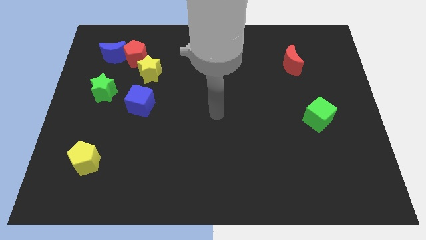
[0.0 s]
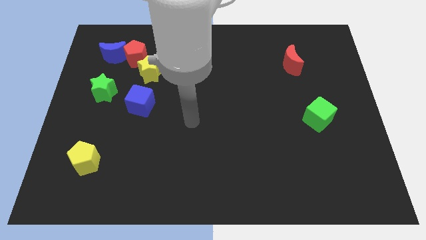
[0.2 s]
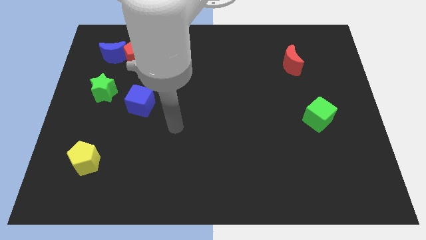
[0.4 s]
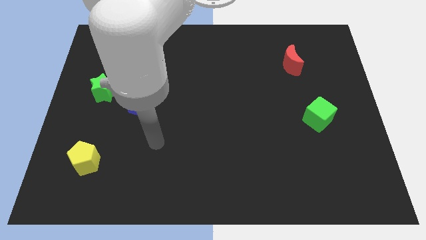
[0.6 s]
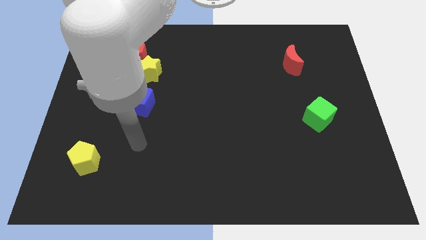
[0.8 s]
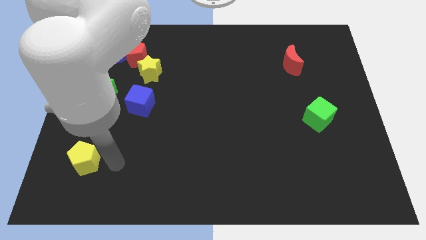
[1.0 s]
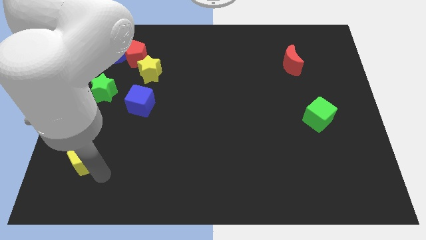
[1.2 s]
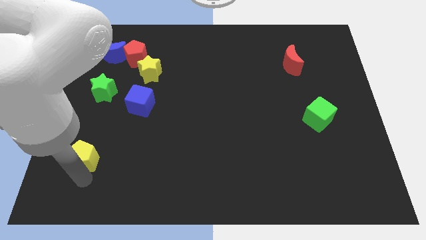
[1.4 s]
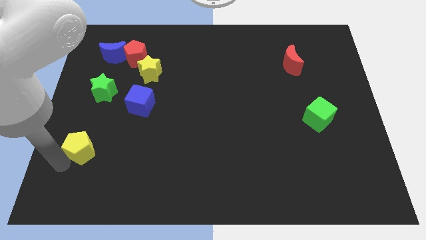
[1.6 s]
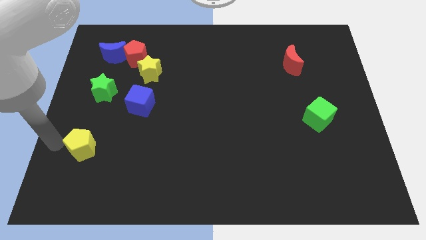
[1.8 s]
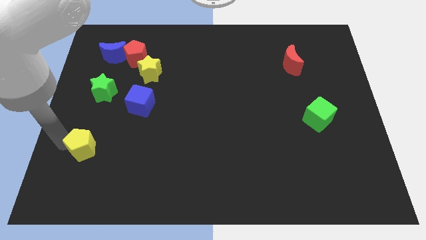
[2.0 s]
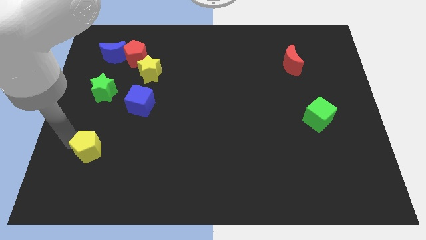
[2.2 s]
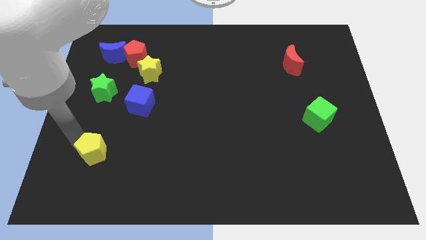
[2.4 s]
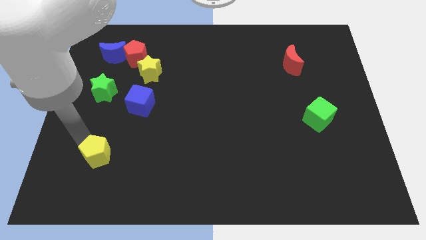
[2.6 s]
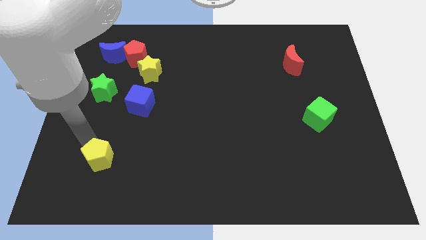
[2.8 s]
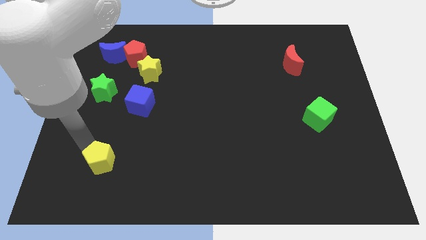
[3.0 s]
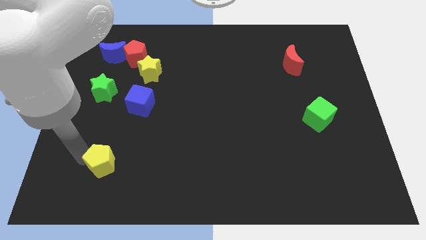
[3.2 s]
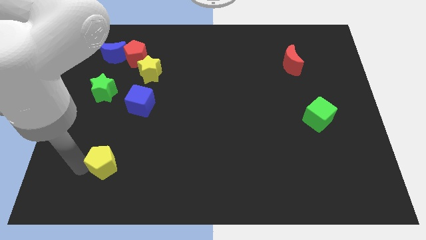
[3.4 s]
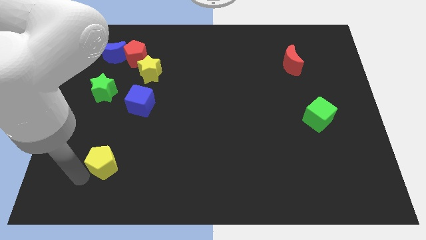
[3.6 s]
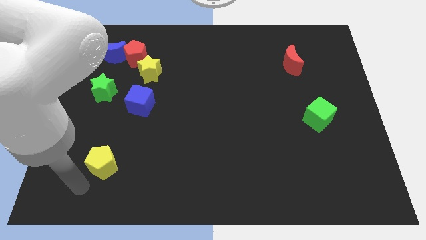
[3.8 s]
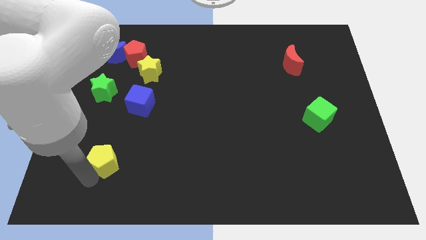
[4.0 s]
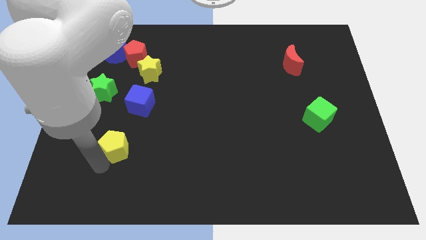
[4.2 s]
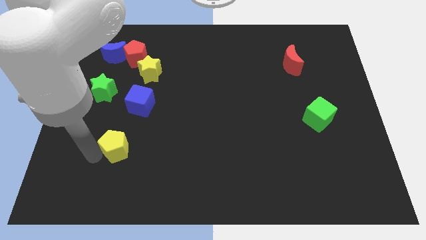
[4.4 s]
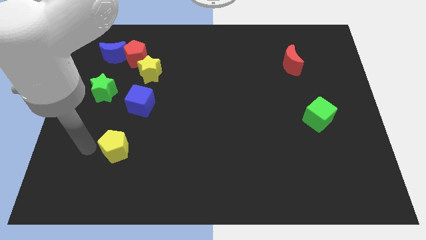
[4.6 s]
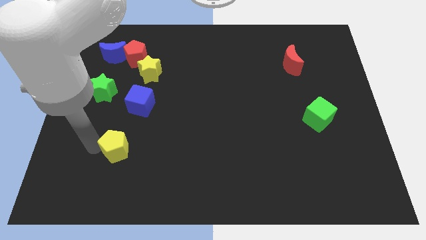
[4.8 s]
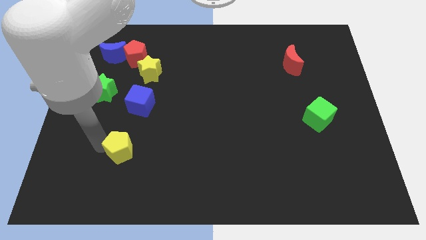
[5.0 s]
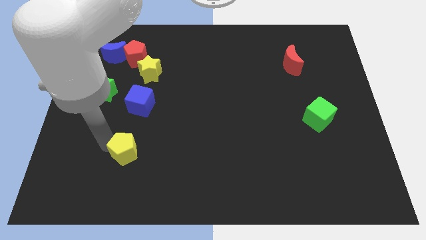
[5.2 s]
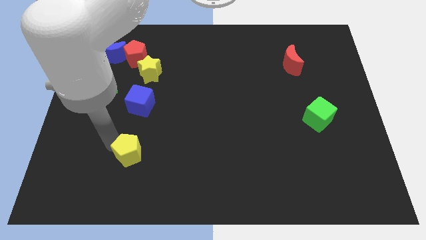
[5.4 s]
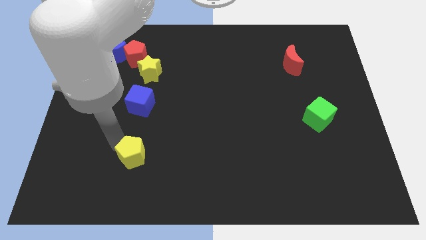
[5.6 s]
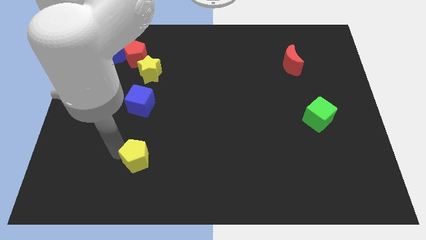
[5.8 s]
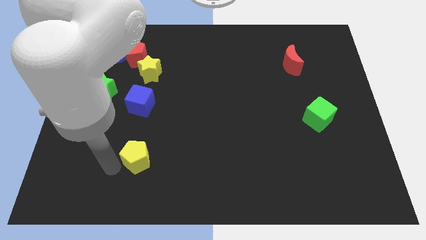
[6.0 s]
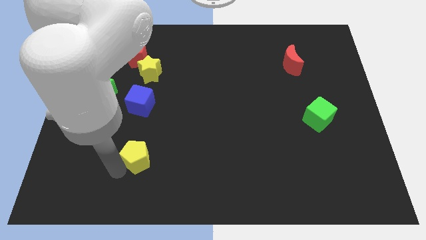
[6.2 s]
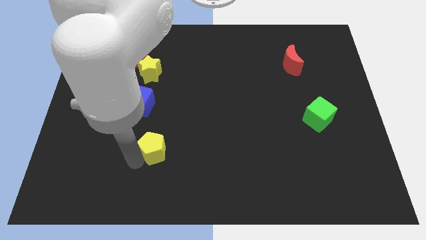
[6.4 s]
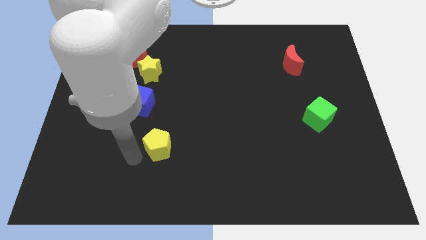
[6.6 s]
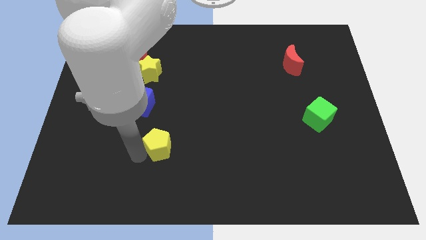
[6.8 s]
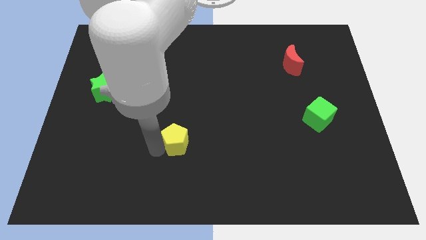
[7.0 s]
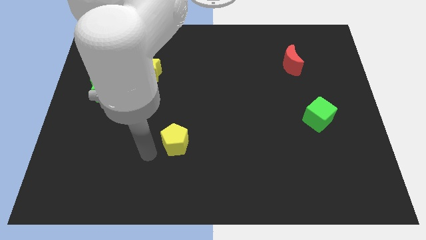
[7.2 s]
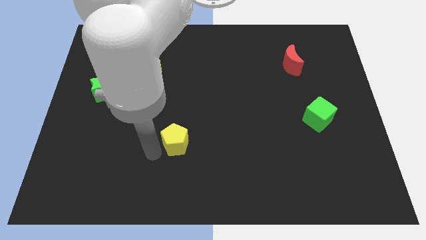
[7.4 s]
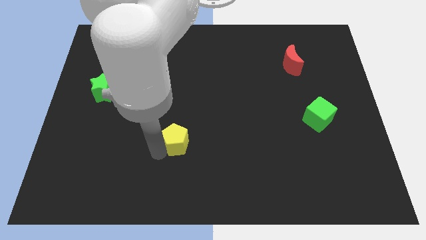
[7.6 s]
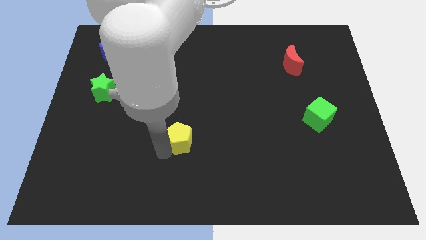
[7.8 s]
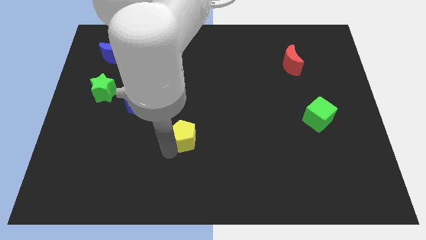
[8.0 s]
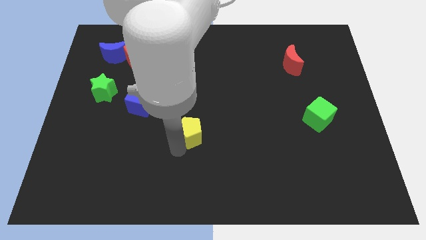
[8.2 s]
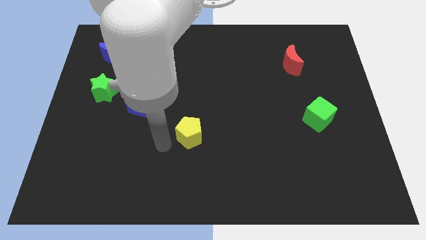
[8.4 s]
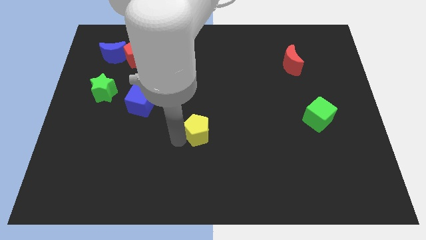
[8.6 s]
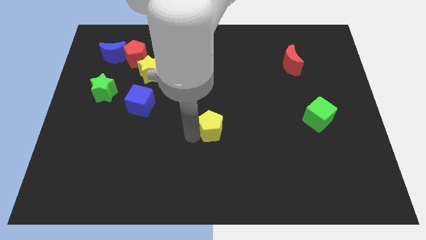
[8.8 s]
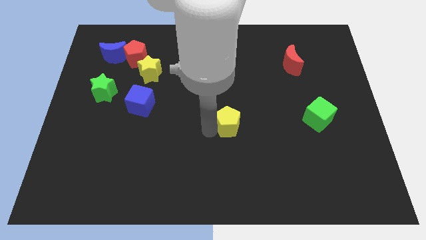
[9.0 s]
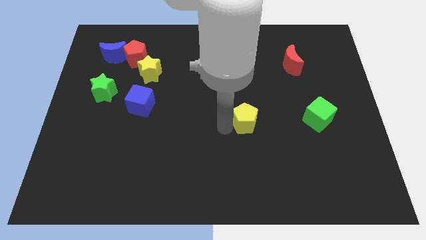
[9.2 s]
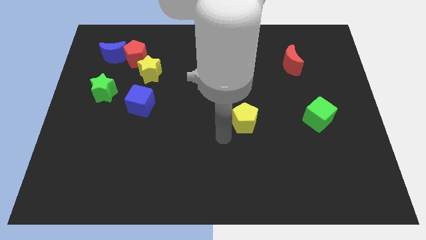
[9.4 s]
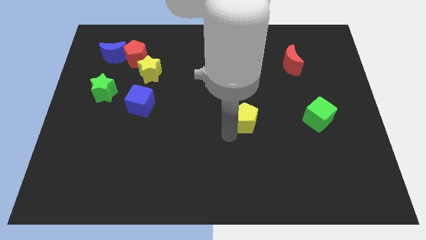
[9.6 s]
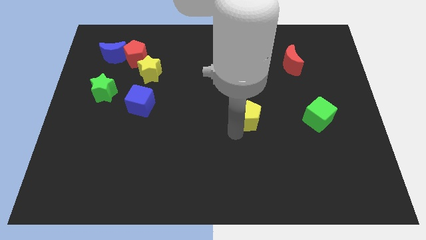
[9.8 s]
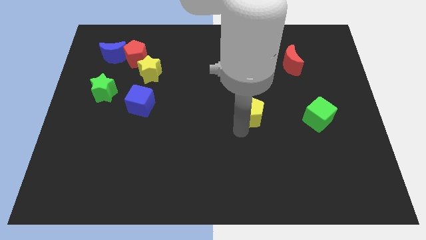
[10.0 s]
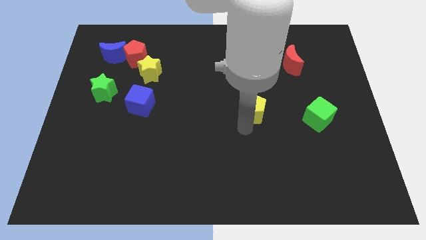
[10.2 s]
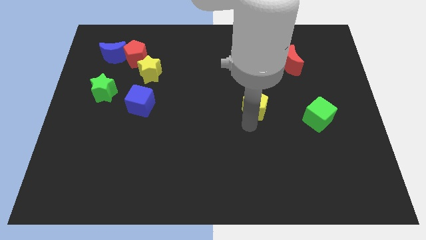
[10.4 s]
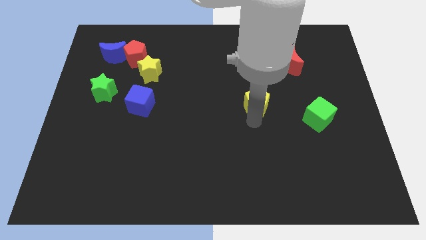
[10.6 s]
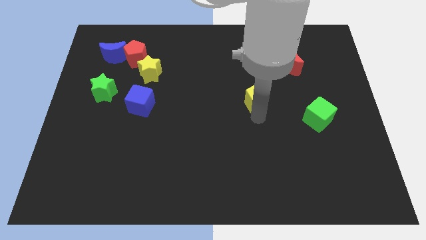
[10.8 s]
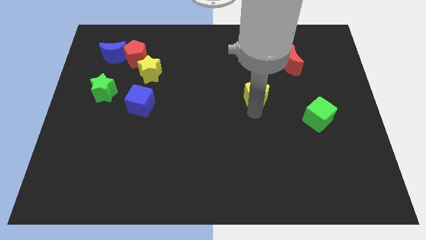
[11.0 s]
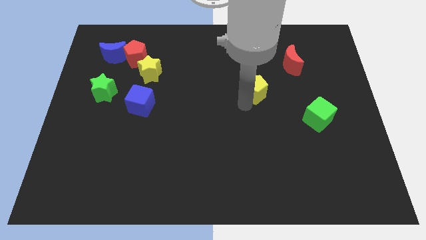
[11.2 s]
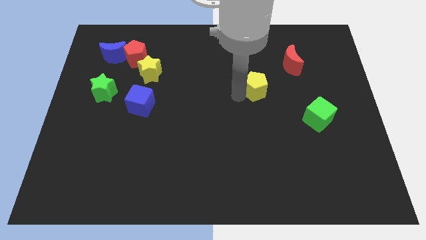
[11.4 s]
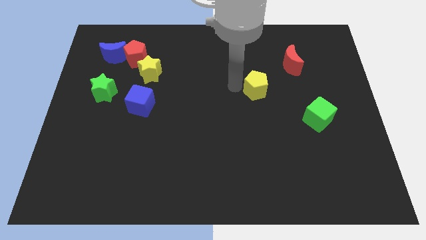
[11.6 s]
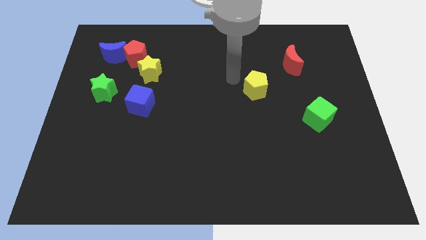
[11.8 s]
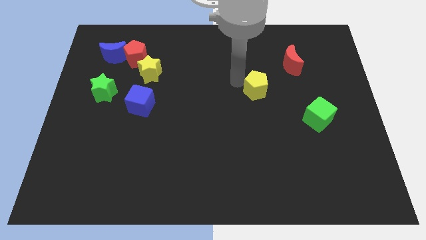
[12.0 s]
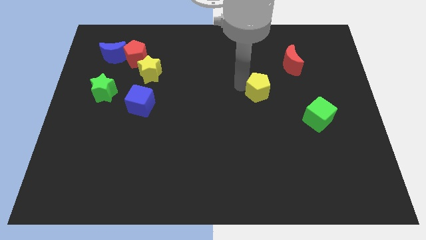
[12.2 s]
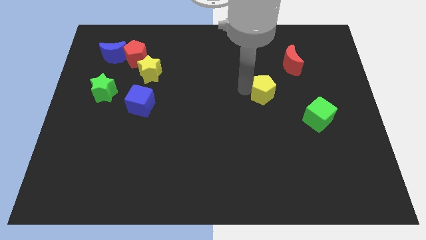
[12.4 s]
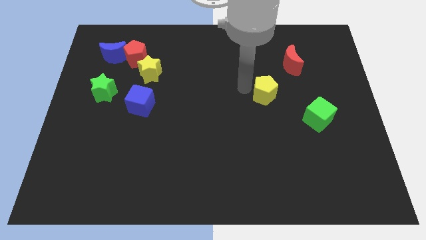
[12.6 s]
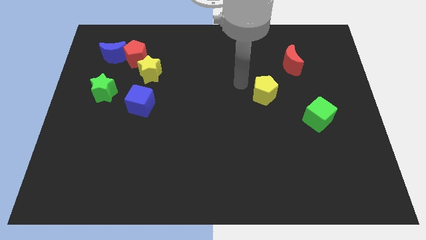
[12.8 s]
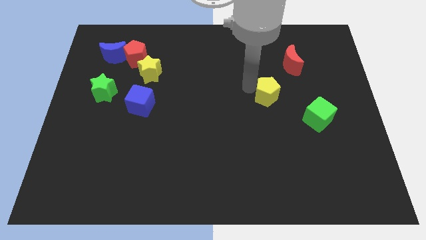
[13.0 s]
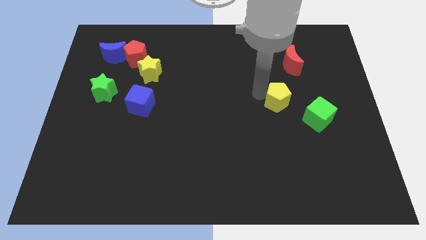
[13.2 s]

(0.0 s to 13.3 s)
push the yellow pentagon below the red moon

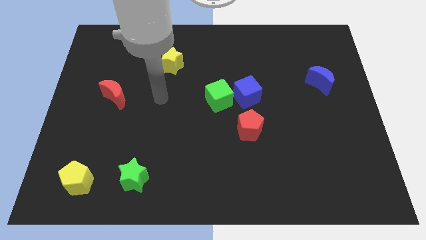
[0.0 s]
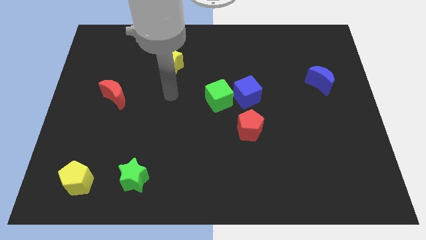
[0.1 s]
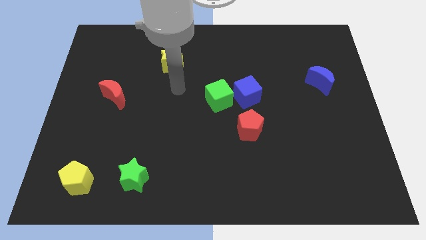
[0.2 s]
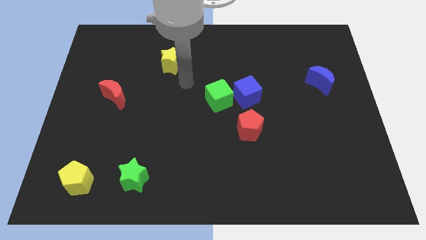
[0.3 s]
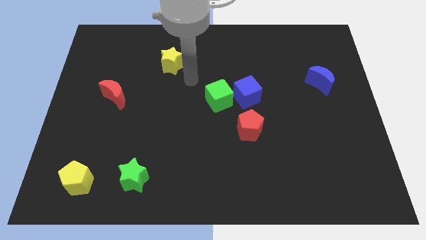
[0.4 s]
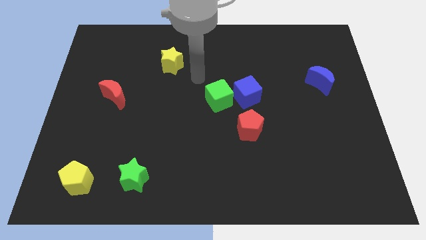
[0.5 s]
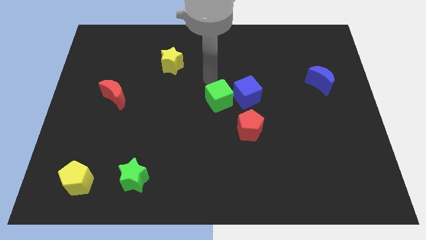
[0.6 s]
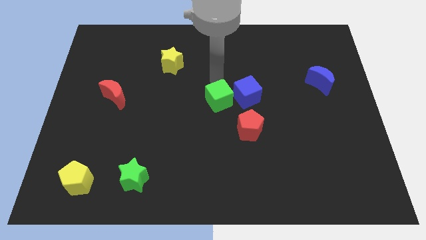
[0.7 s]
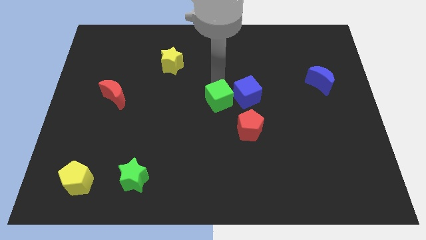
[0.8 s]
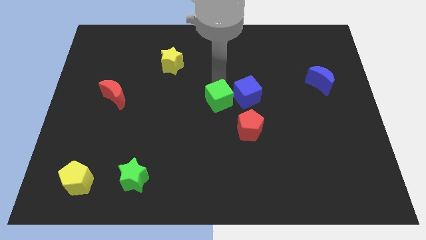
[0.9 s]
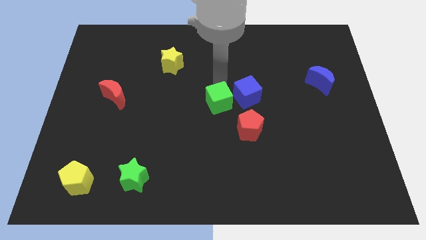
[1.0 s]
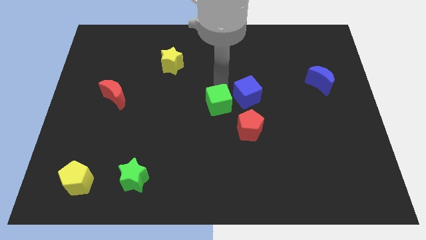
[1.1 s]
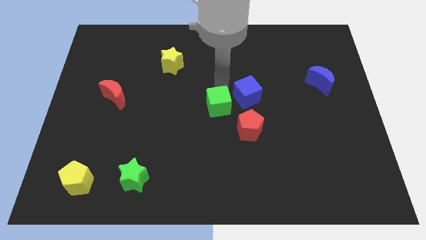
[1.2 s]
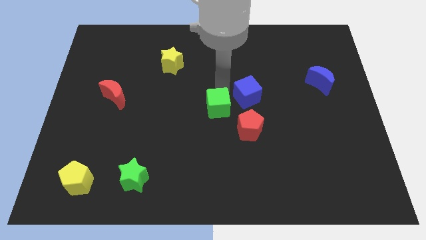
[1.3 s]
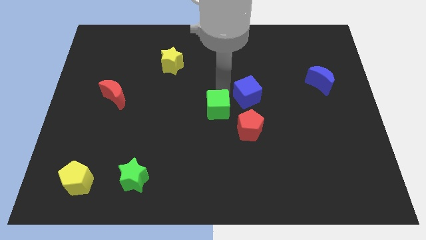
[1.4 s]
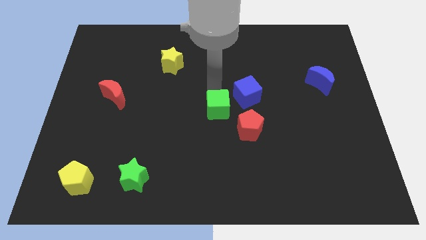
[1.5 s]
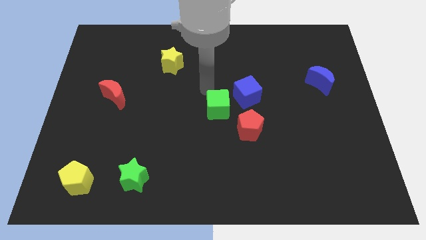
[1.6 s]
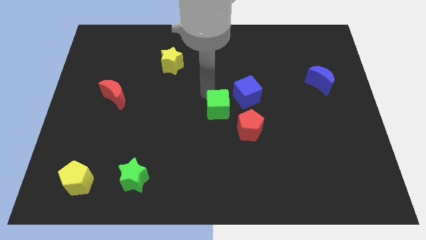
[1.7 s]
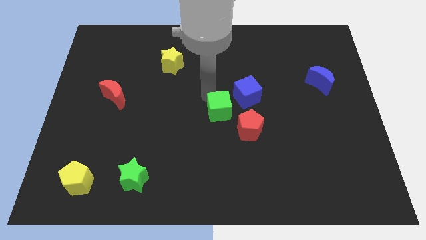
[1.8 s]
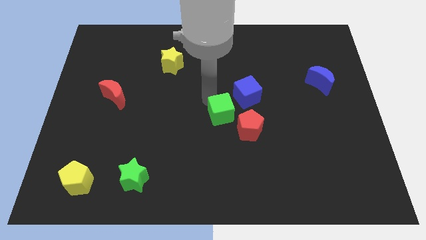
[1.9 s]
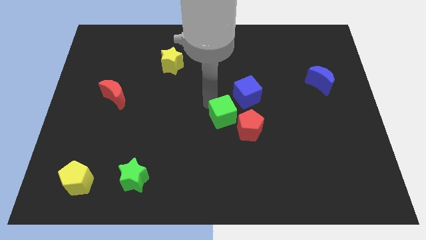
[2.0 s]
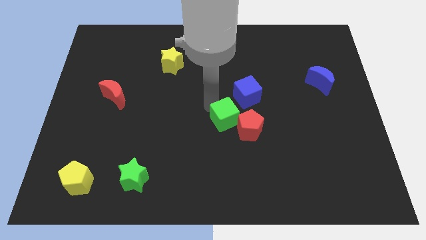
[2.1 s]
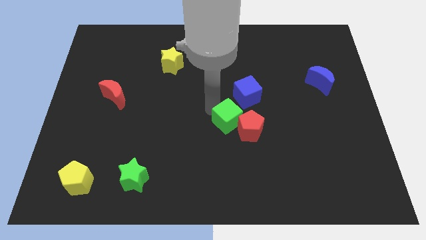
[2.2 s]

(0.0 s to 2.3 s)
put the green cube to the bottom side of the blue cube
